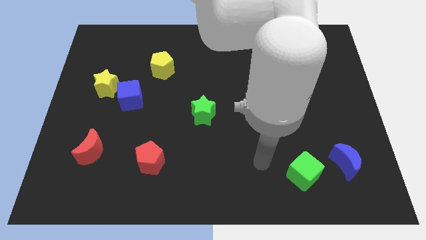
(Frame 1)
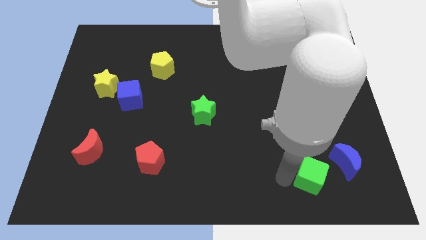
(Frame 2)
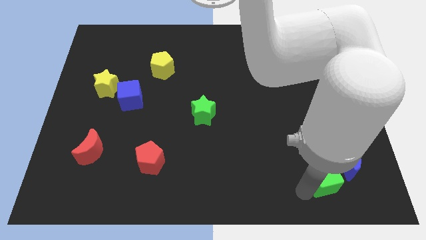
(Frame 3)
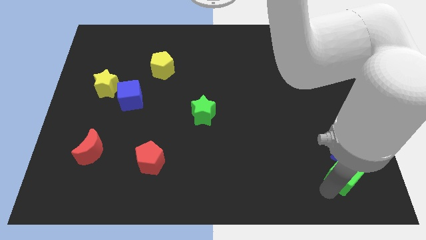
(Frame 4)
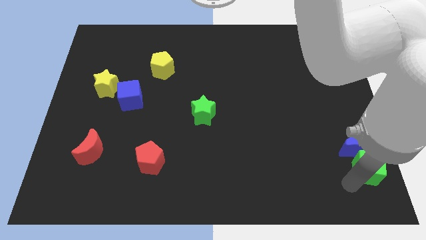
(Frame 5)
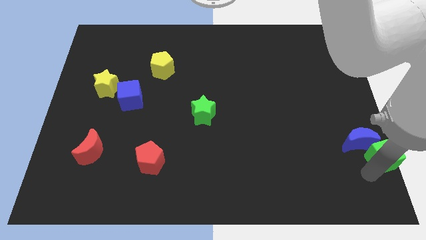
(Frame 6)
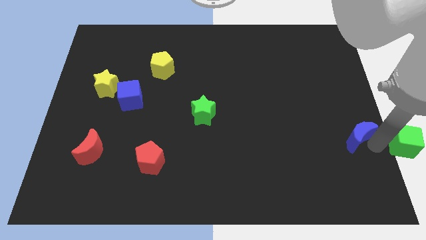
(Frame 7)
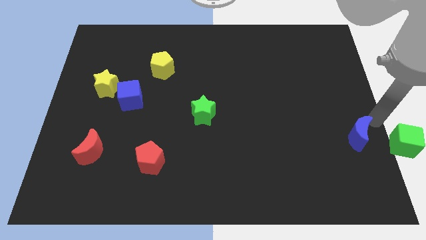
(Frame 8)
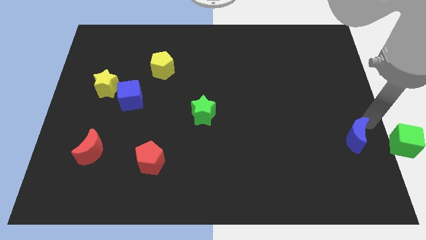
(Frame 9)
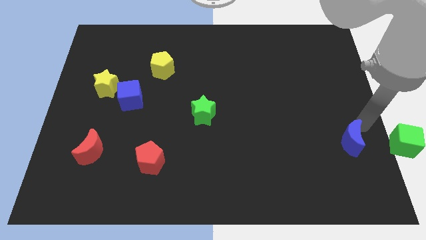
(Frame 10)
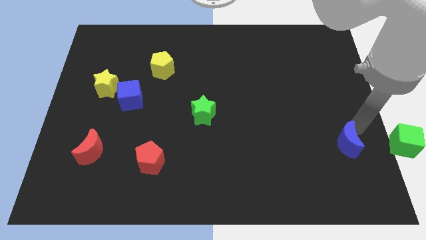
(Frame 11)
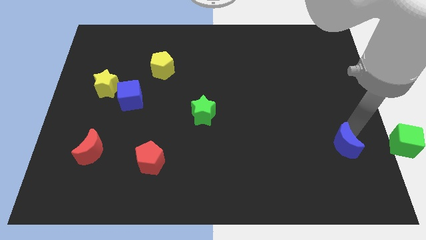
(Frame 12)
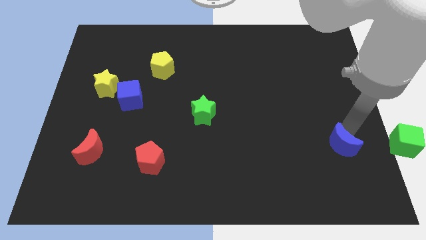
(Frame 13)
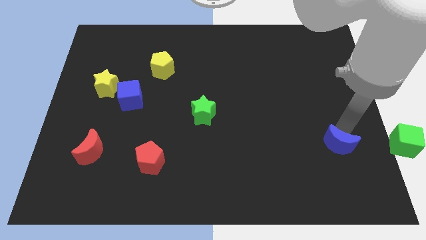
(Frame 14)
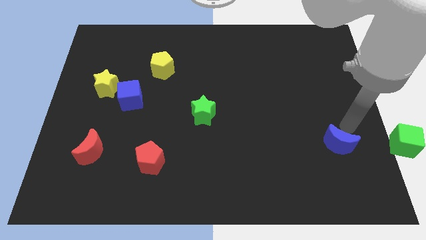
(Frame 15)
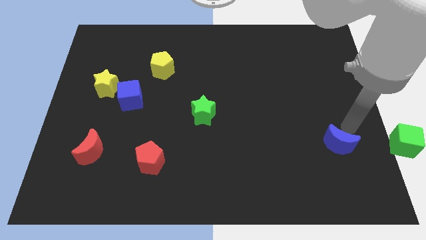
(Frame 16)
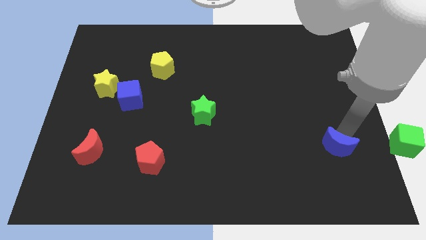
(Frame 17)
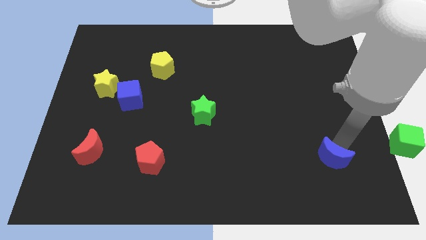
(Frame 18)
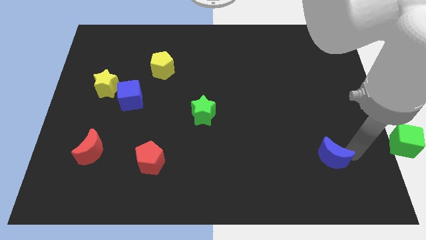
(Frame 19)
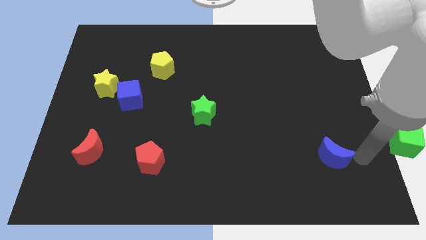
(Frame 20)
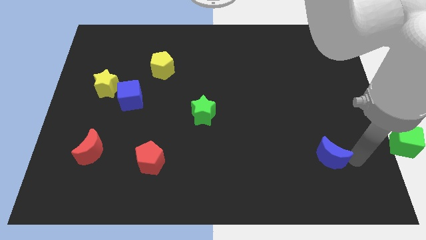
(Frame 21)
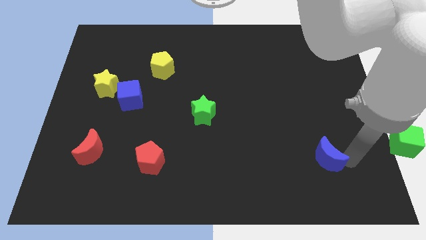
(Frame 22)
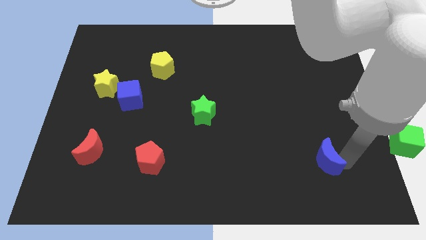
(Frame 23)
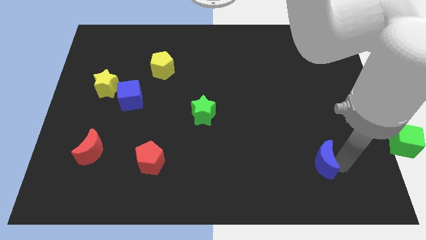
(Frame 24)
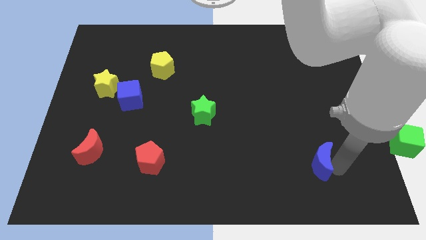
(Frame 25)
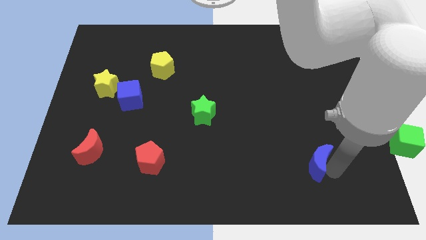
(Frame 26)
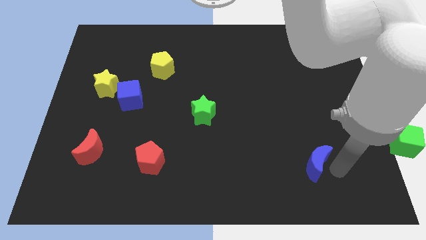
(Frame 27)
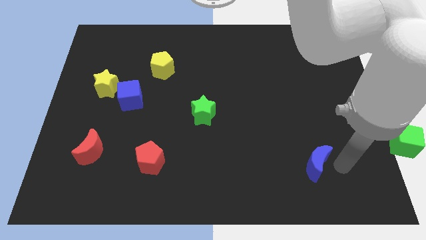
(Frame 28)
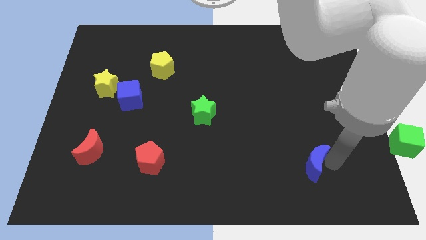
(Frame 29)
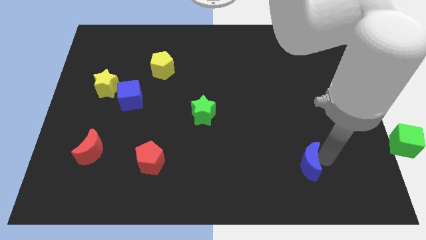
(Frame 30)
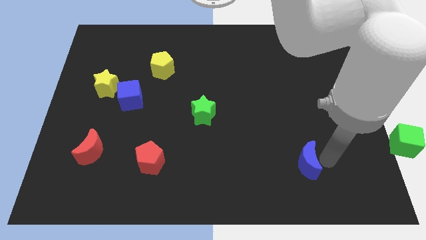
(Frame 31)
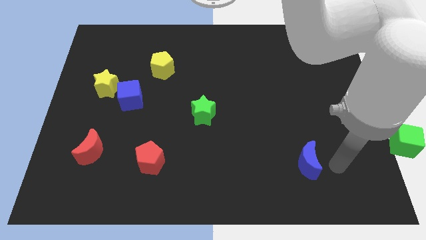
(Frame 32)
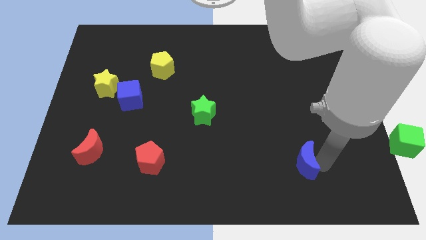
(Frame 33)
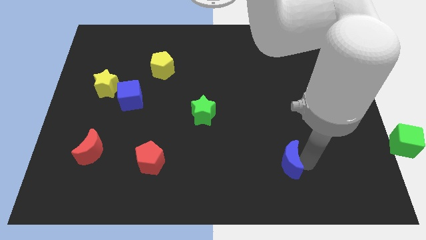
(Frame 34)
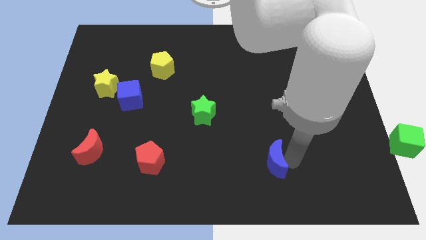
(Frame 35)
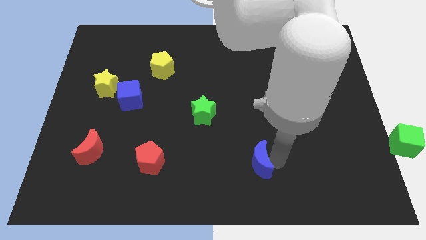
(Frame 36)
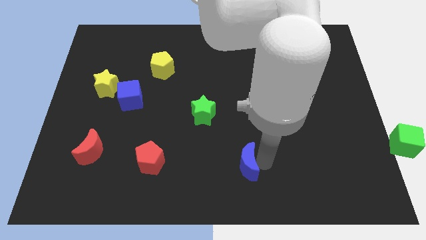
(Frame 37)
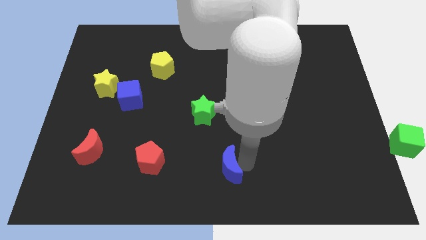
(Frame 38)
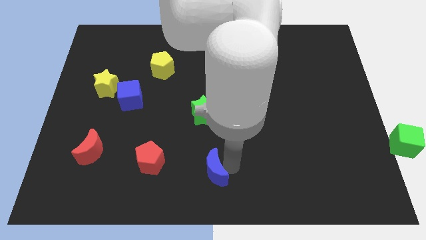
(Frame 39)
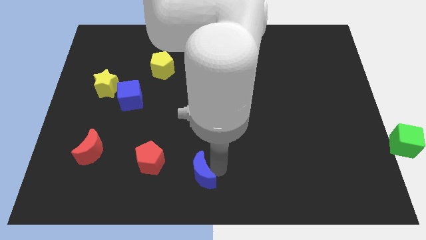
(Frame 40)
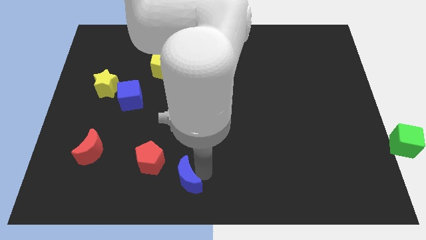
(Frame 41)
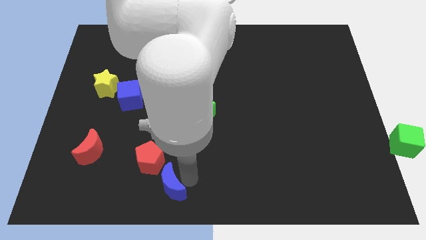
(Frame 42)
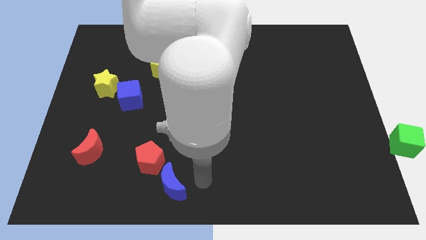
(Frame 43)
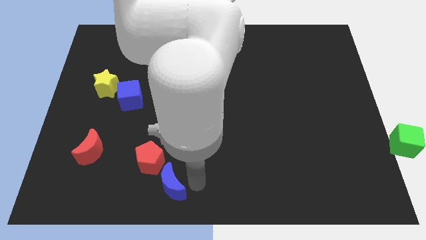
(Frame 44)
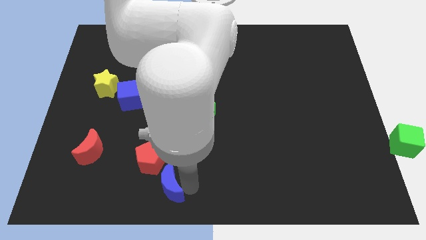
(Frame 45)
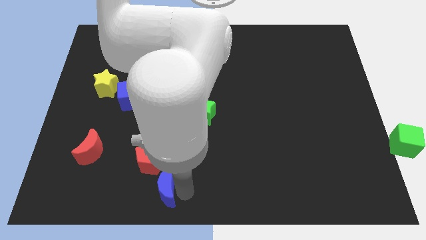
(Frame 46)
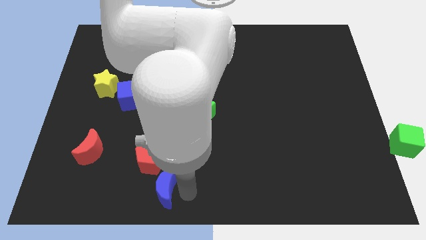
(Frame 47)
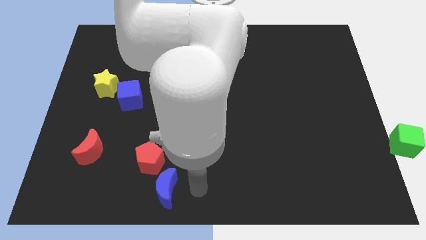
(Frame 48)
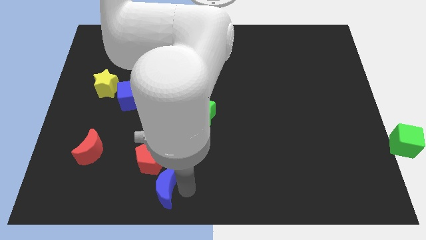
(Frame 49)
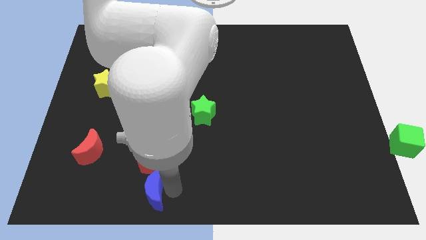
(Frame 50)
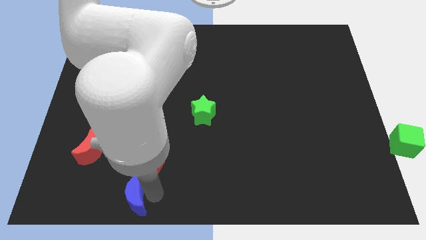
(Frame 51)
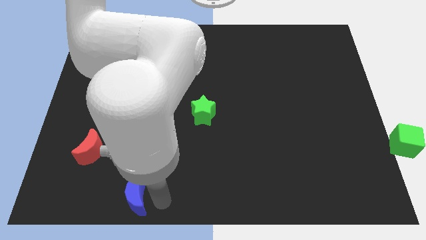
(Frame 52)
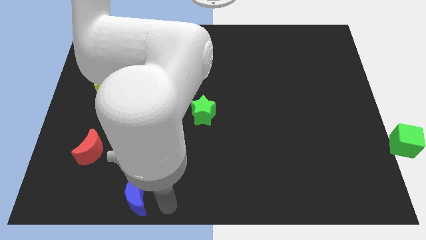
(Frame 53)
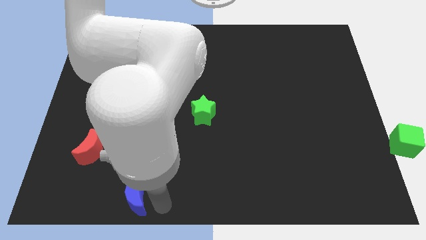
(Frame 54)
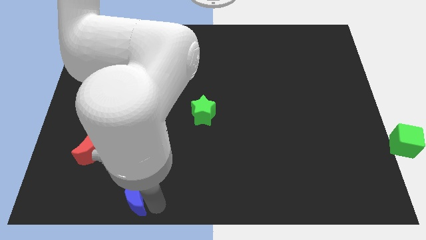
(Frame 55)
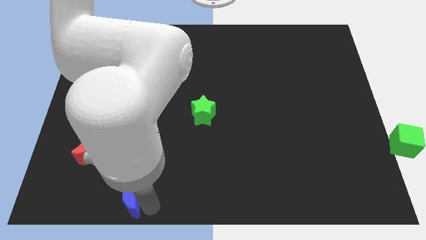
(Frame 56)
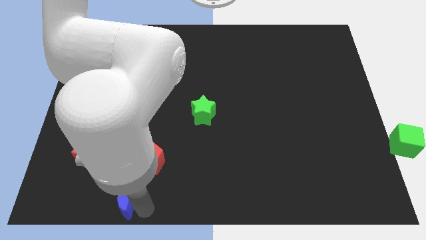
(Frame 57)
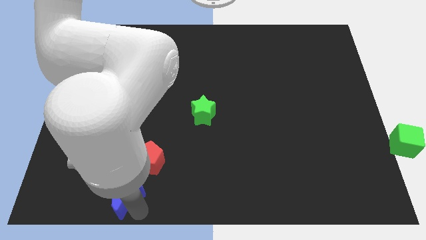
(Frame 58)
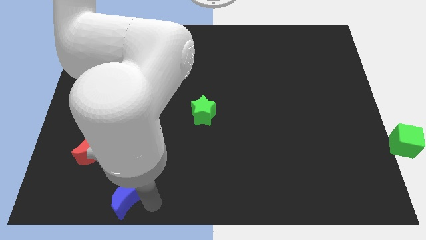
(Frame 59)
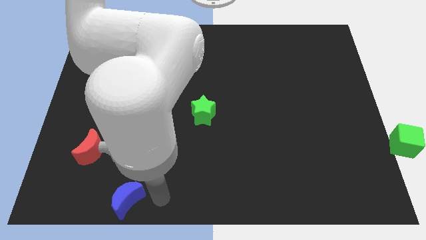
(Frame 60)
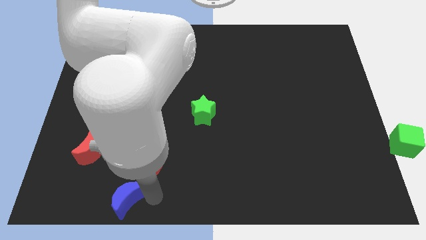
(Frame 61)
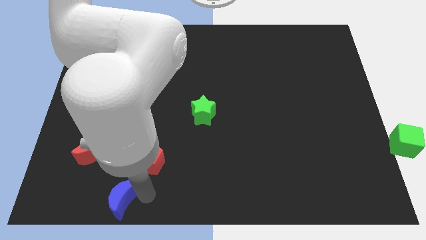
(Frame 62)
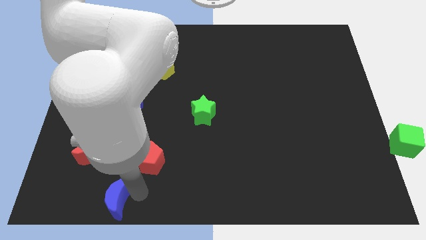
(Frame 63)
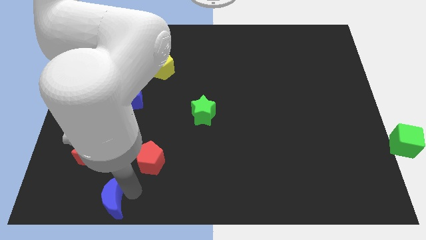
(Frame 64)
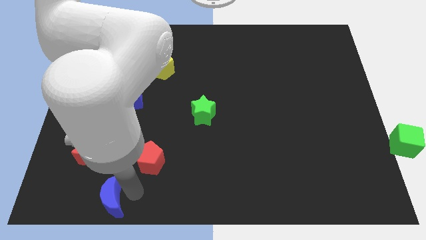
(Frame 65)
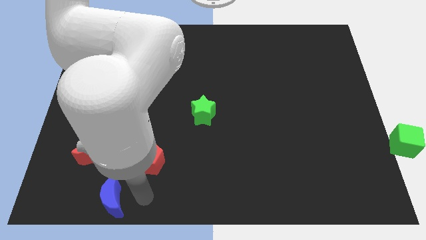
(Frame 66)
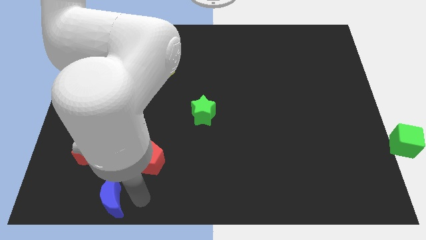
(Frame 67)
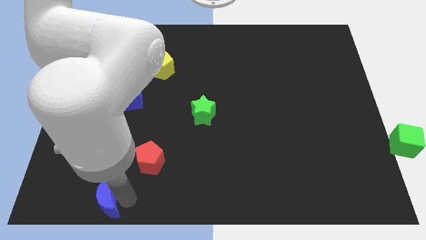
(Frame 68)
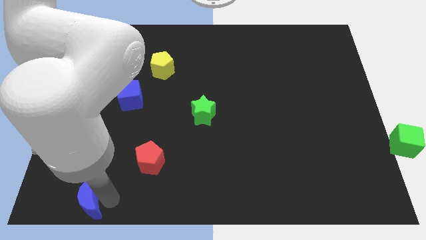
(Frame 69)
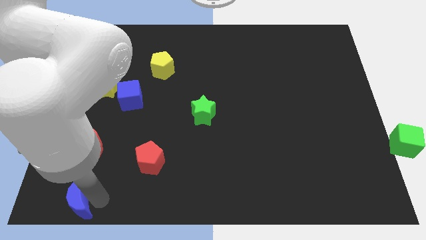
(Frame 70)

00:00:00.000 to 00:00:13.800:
push the blue moon to the bottom left corner
